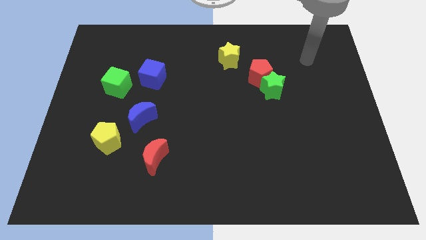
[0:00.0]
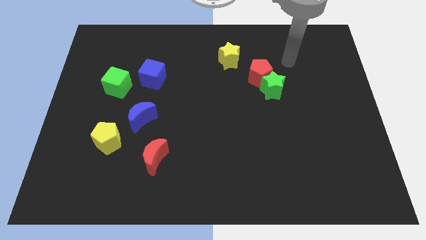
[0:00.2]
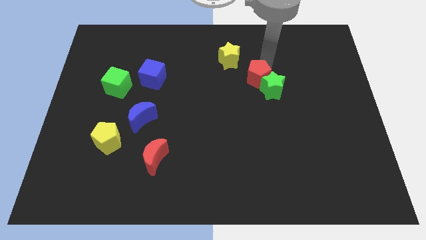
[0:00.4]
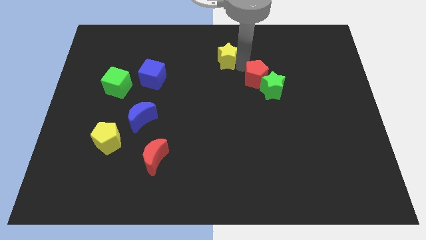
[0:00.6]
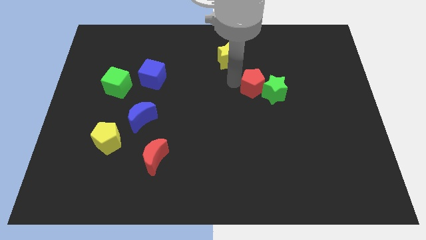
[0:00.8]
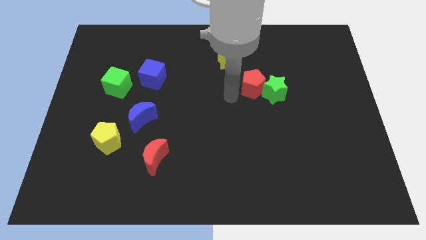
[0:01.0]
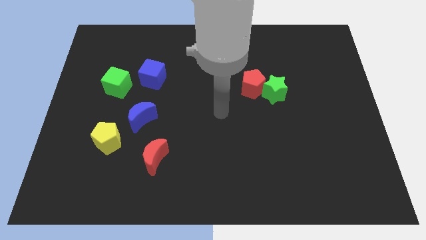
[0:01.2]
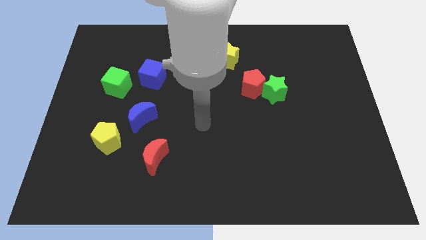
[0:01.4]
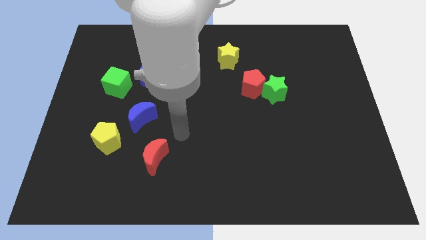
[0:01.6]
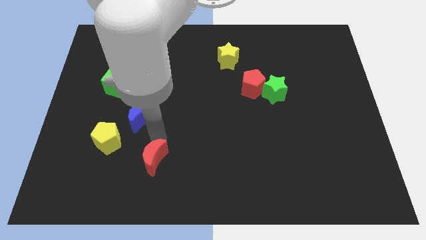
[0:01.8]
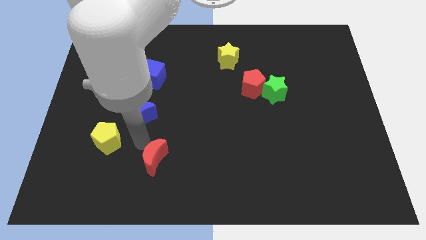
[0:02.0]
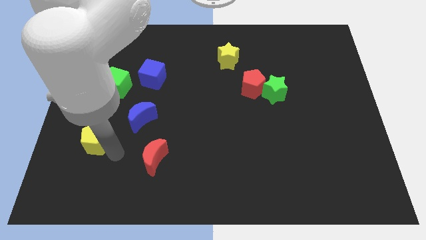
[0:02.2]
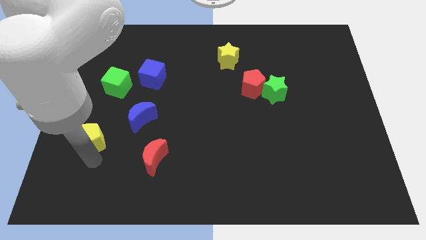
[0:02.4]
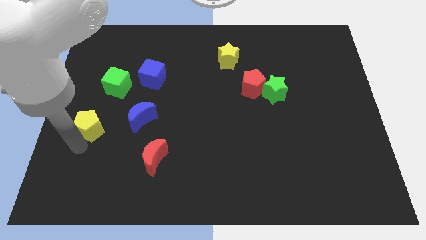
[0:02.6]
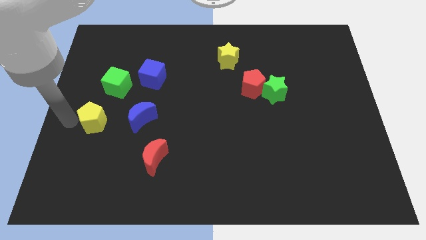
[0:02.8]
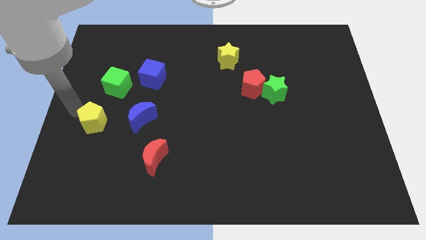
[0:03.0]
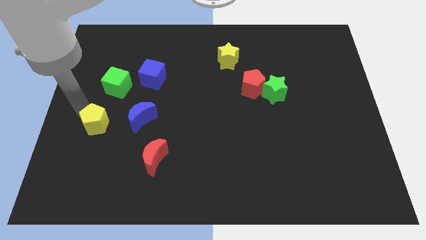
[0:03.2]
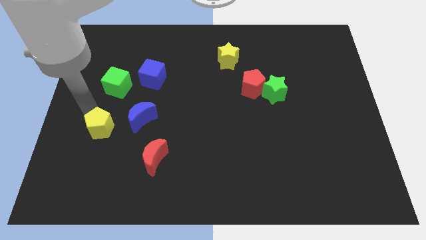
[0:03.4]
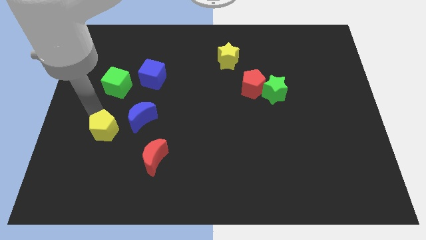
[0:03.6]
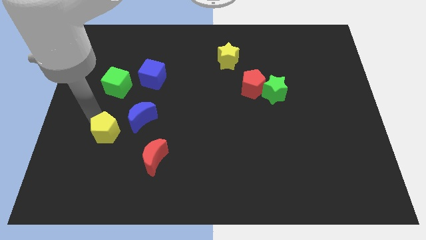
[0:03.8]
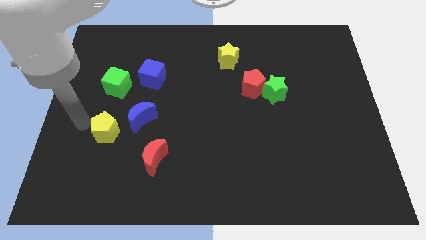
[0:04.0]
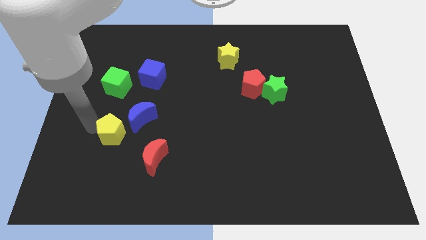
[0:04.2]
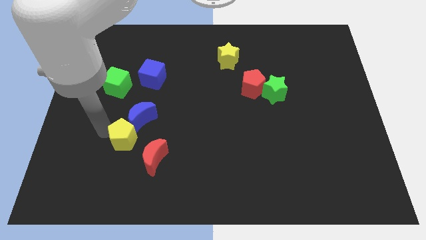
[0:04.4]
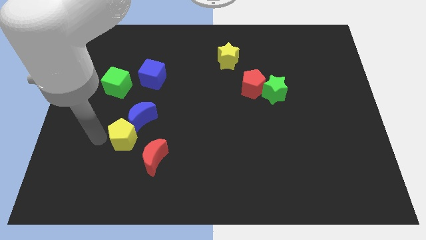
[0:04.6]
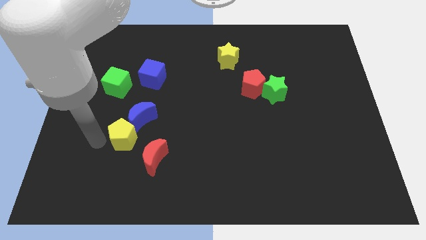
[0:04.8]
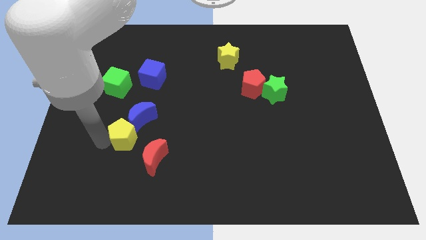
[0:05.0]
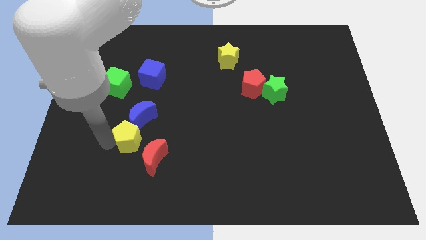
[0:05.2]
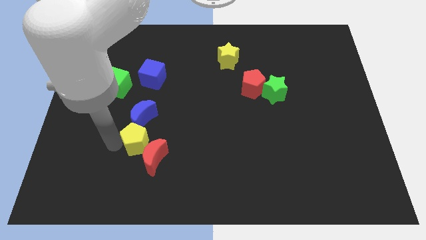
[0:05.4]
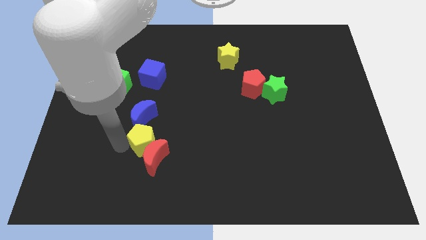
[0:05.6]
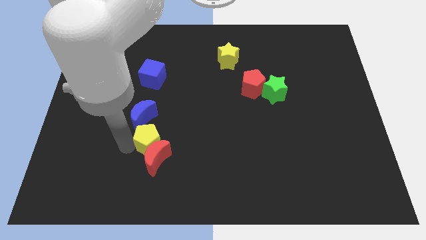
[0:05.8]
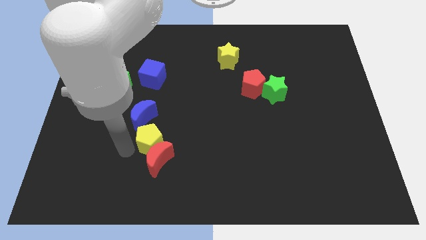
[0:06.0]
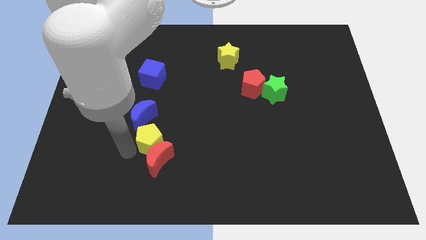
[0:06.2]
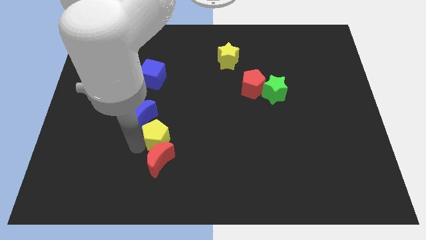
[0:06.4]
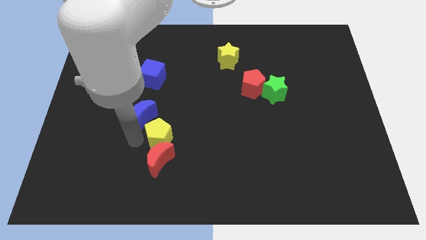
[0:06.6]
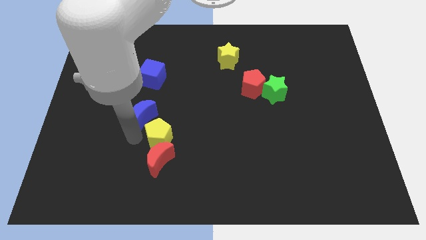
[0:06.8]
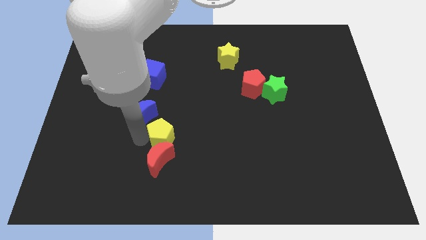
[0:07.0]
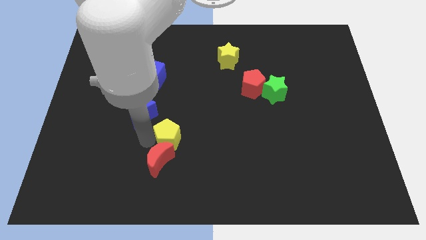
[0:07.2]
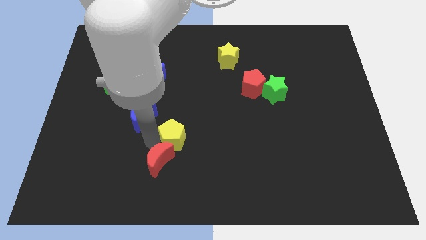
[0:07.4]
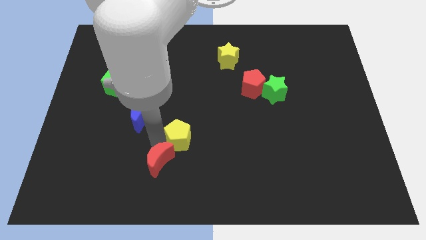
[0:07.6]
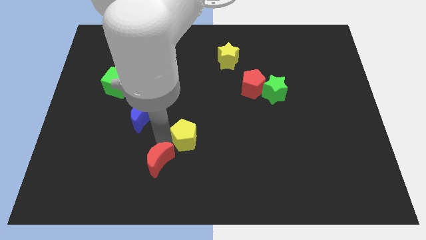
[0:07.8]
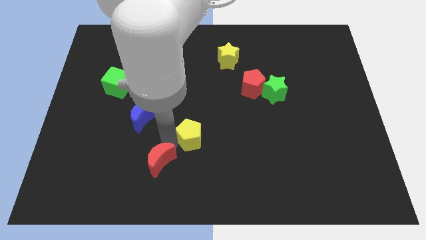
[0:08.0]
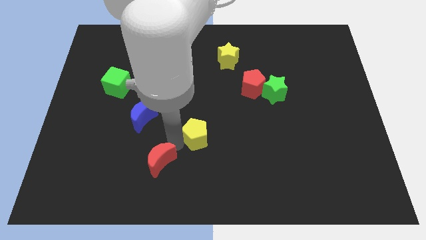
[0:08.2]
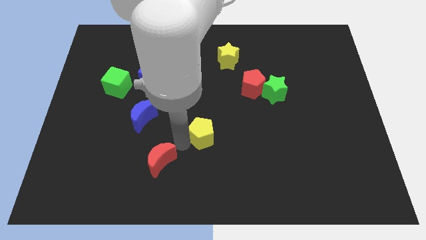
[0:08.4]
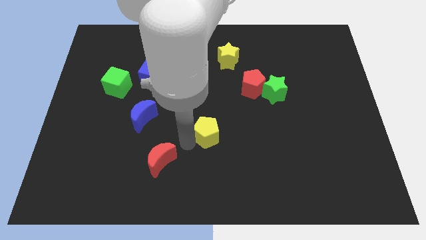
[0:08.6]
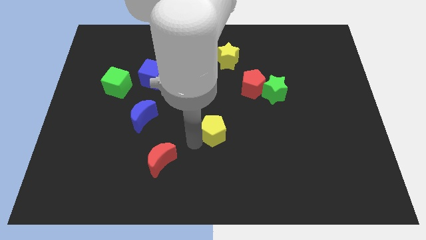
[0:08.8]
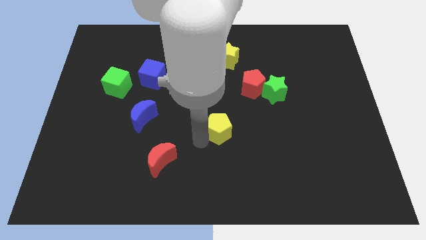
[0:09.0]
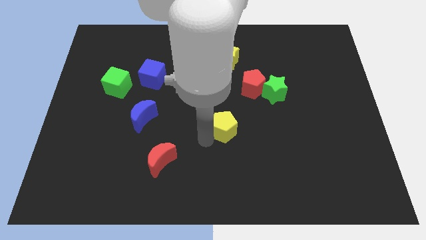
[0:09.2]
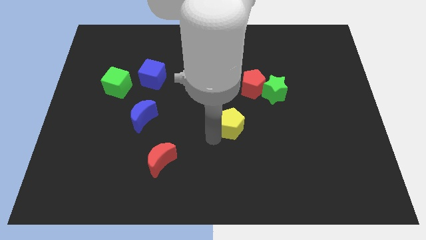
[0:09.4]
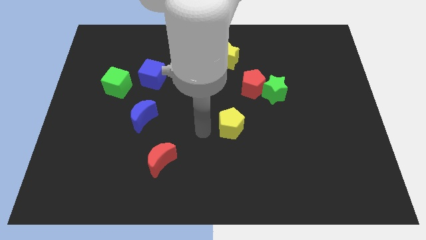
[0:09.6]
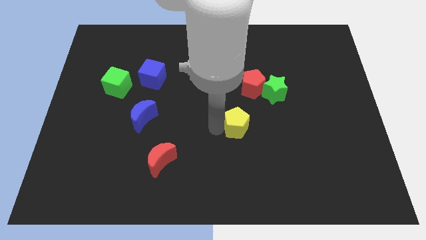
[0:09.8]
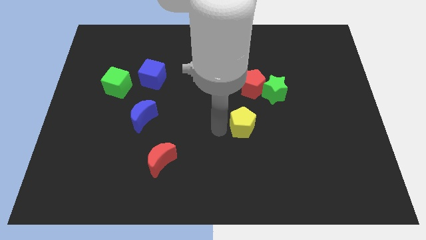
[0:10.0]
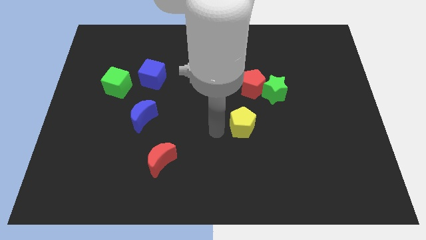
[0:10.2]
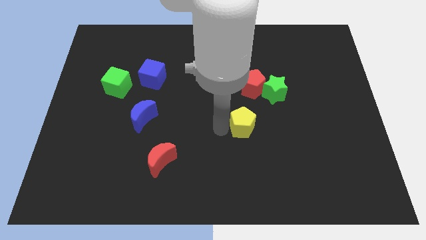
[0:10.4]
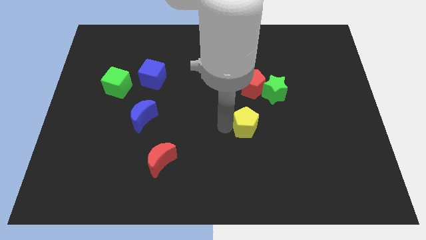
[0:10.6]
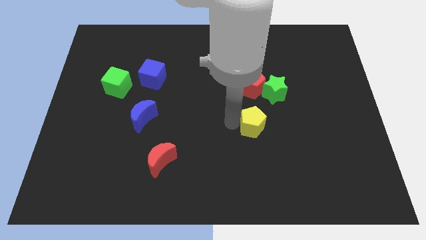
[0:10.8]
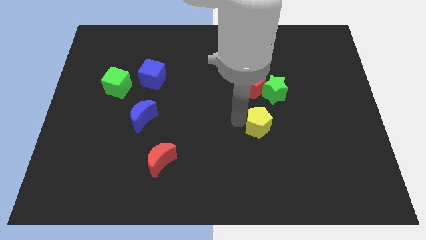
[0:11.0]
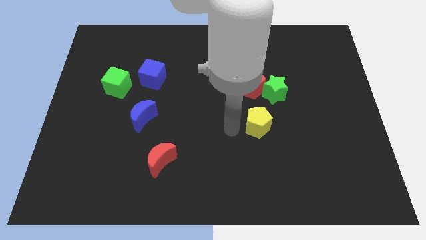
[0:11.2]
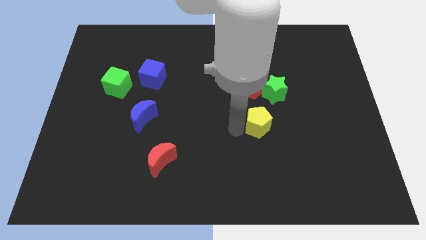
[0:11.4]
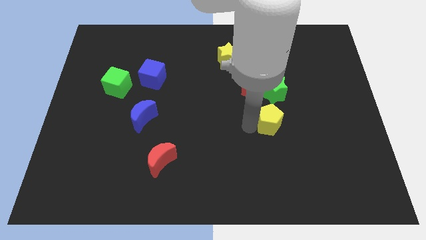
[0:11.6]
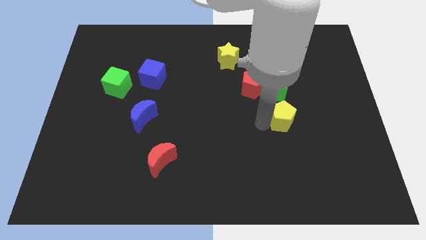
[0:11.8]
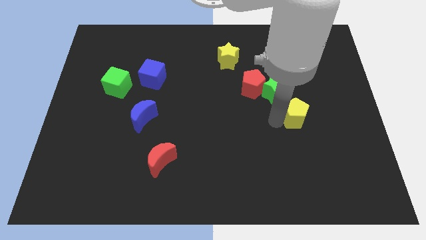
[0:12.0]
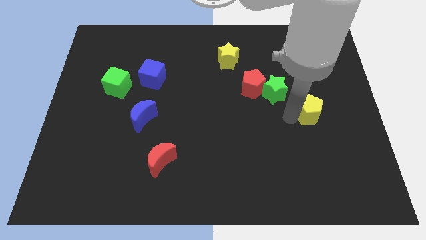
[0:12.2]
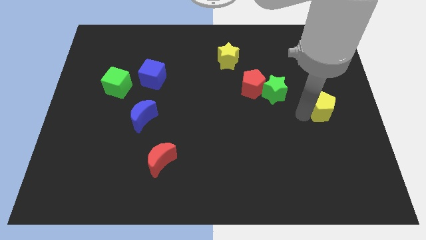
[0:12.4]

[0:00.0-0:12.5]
slide the yellow pentagon to the center right
